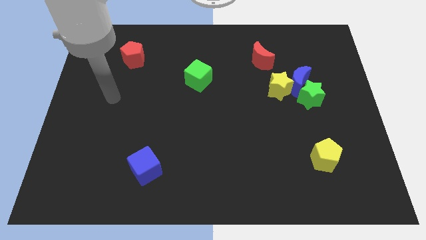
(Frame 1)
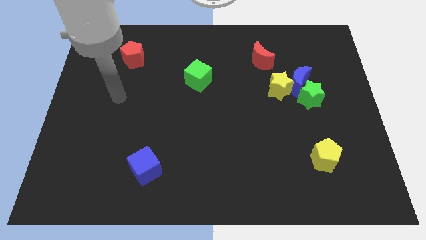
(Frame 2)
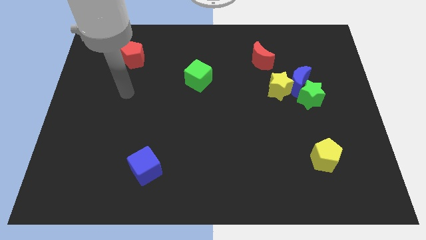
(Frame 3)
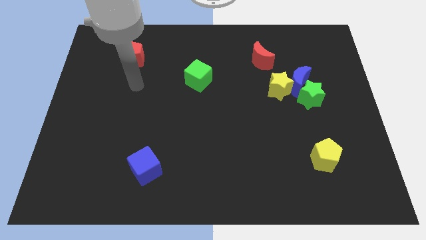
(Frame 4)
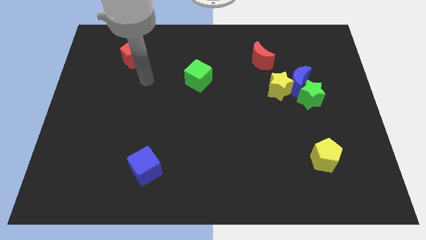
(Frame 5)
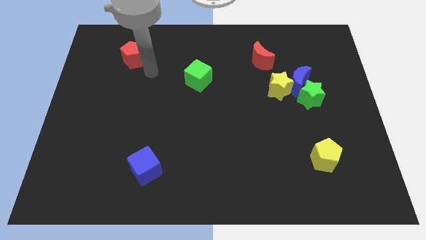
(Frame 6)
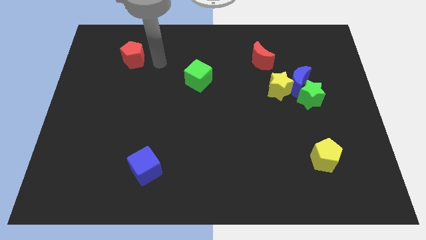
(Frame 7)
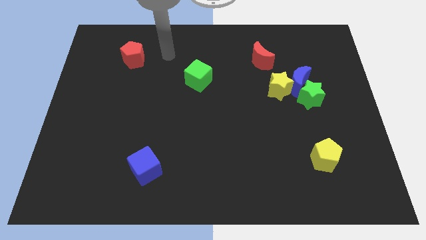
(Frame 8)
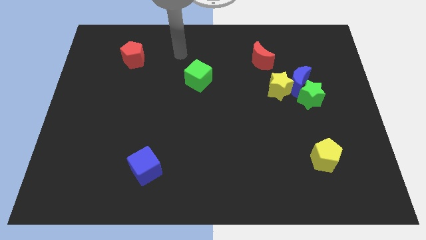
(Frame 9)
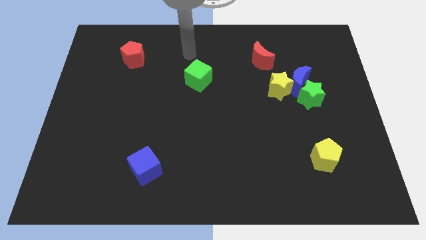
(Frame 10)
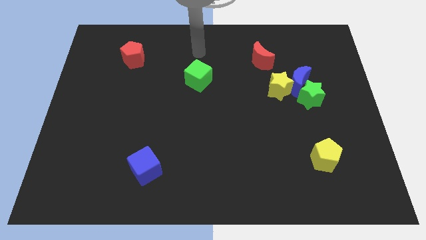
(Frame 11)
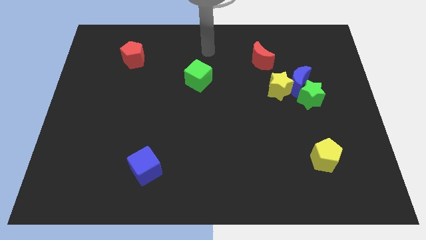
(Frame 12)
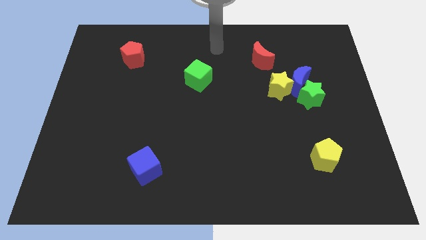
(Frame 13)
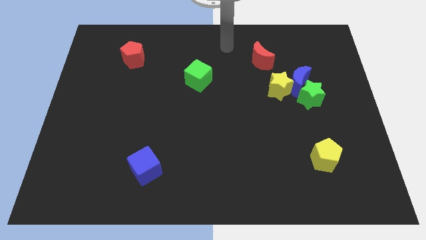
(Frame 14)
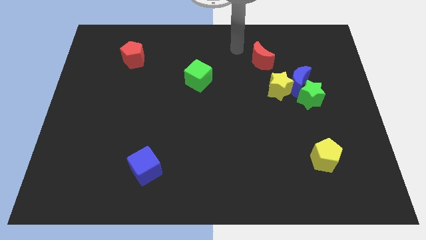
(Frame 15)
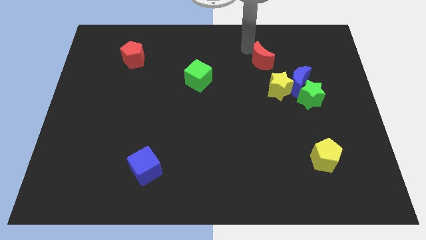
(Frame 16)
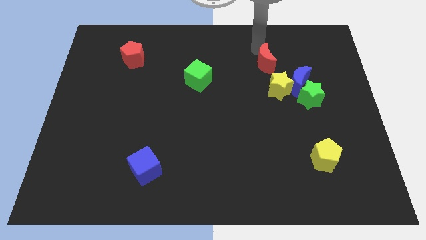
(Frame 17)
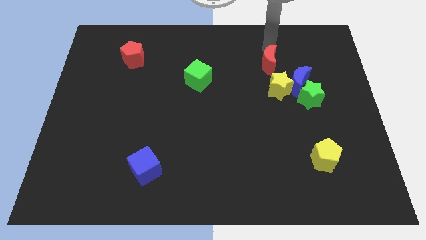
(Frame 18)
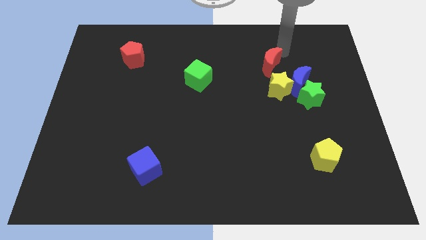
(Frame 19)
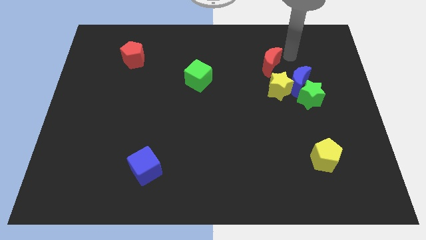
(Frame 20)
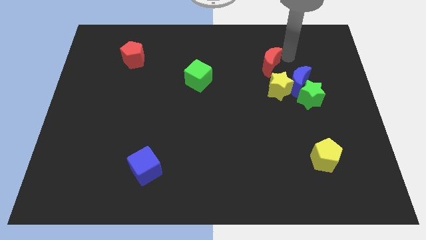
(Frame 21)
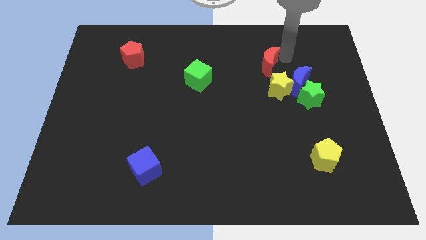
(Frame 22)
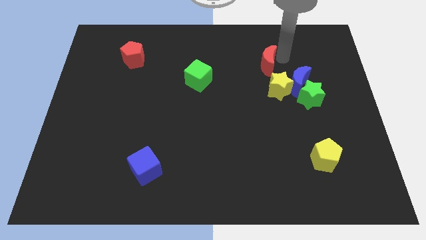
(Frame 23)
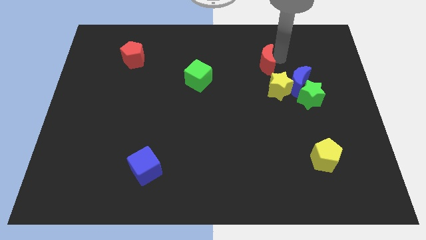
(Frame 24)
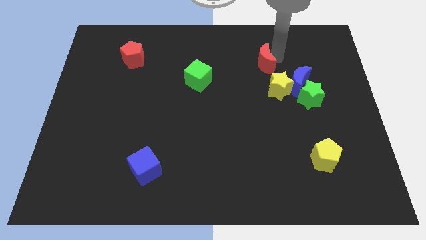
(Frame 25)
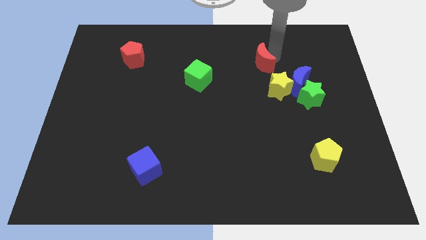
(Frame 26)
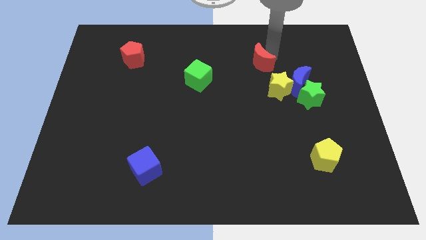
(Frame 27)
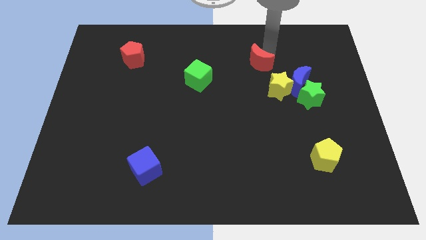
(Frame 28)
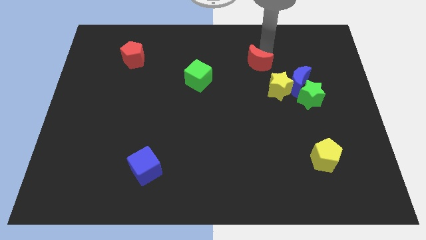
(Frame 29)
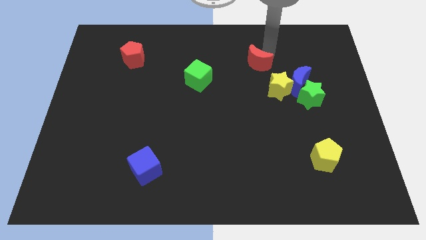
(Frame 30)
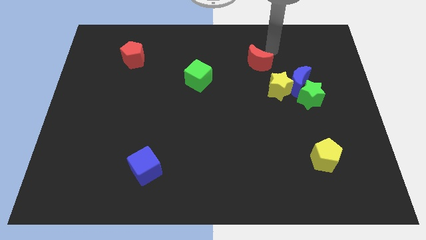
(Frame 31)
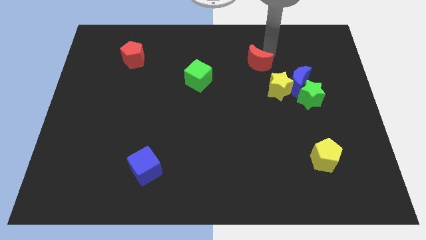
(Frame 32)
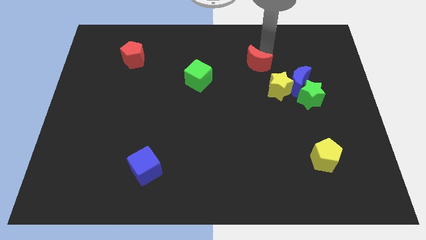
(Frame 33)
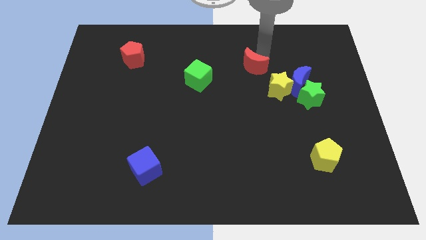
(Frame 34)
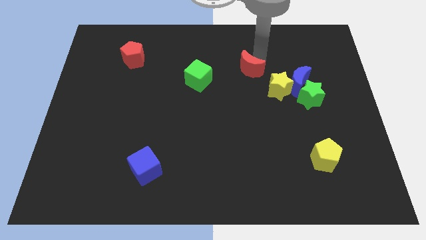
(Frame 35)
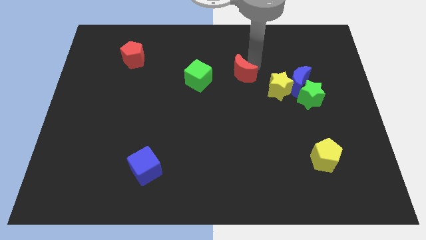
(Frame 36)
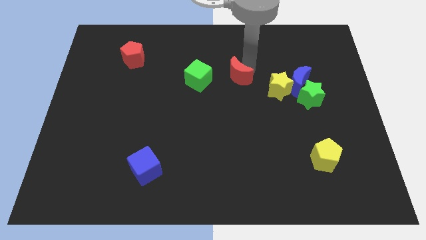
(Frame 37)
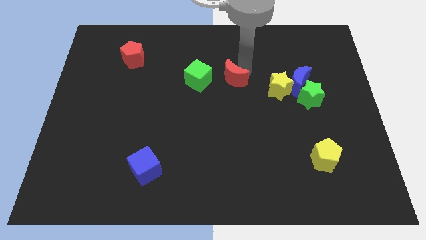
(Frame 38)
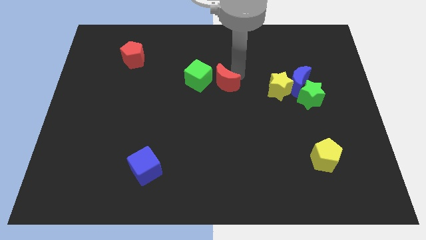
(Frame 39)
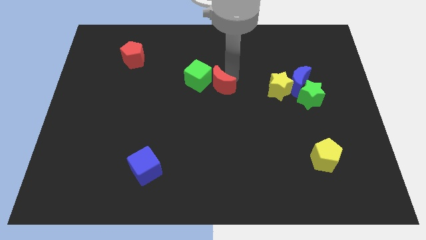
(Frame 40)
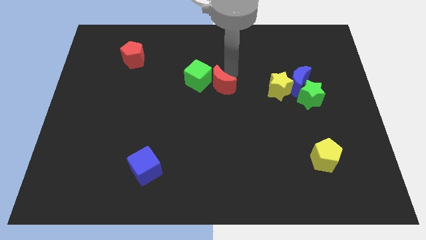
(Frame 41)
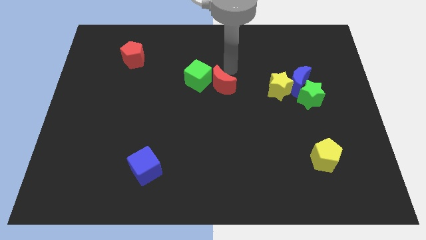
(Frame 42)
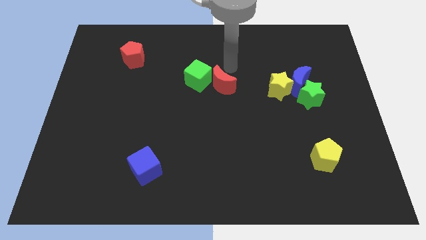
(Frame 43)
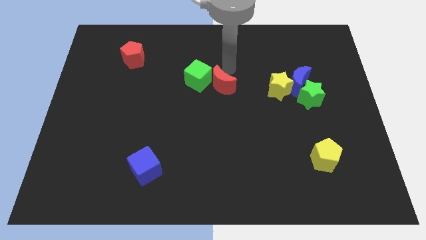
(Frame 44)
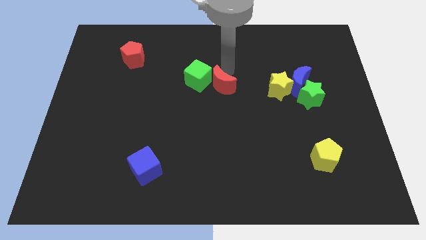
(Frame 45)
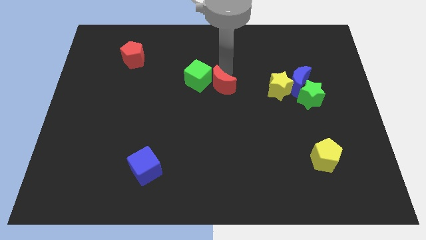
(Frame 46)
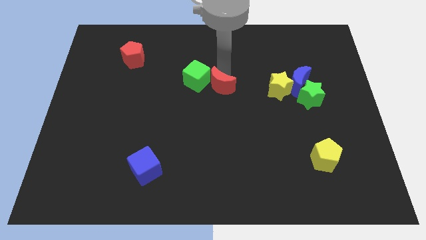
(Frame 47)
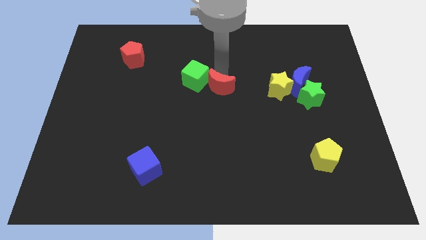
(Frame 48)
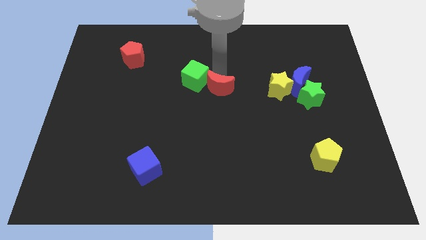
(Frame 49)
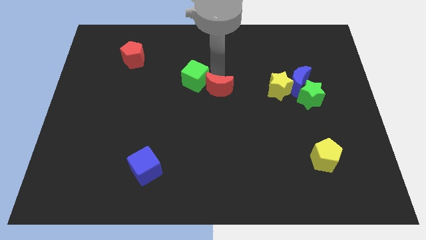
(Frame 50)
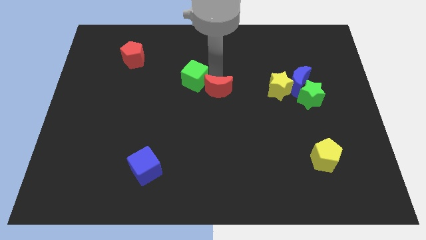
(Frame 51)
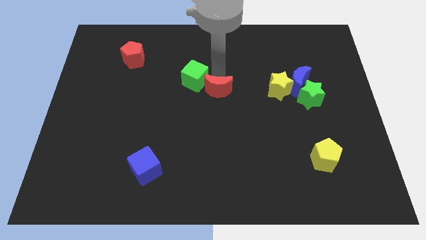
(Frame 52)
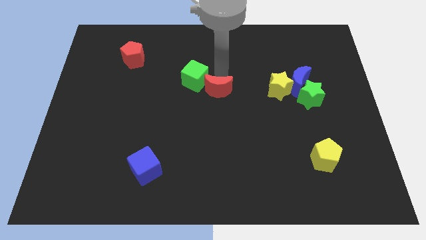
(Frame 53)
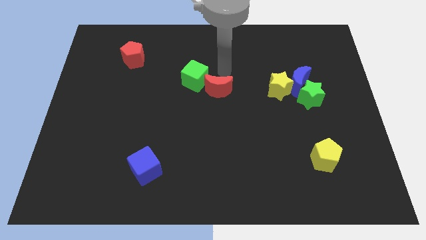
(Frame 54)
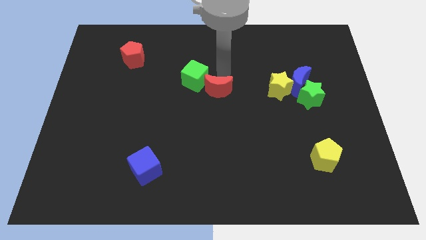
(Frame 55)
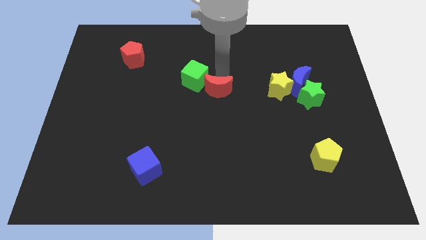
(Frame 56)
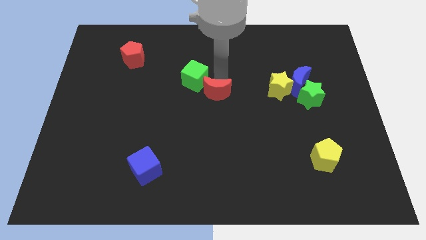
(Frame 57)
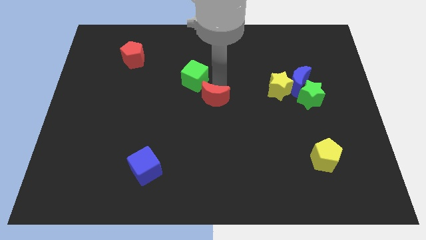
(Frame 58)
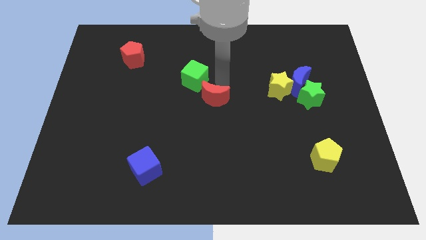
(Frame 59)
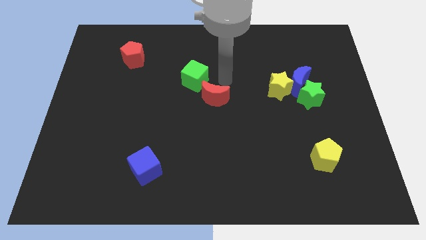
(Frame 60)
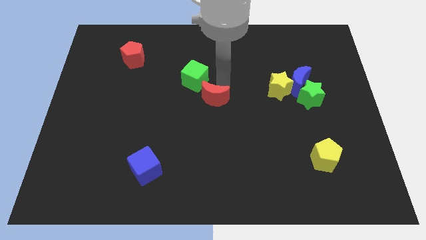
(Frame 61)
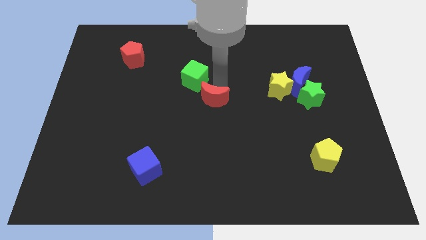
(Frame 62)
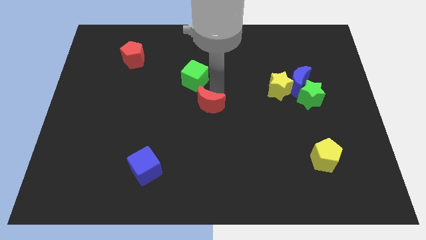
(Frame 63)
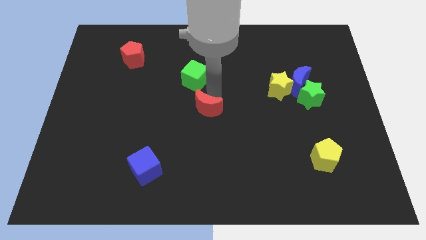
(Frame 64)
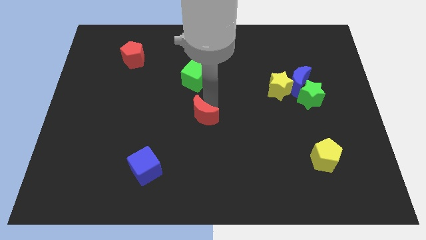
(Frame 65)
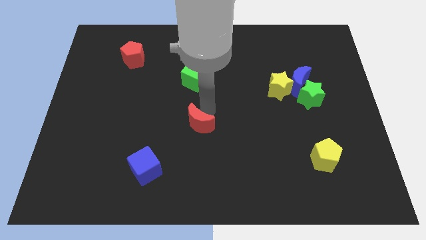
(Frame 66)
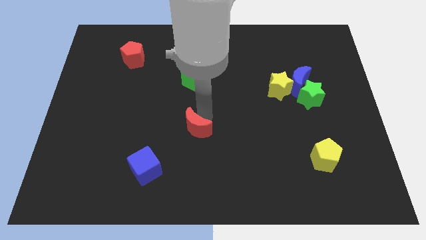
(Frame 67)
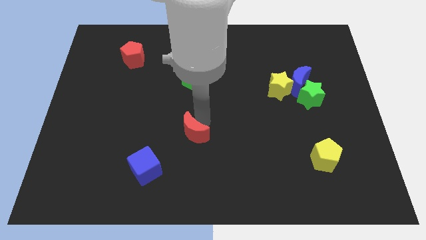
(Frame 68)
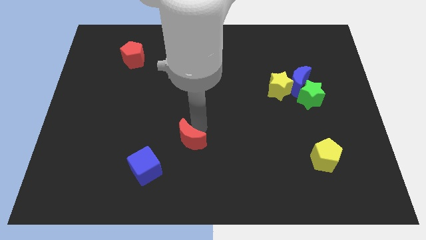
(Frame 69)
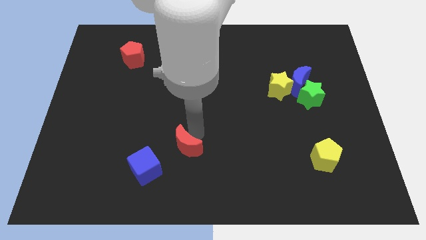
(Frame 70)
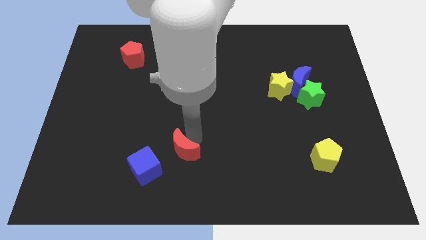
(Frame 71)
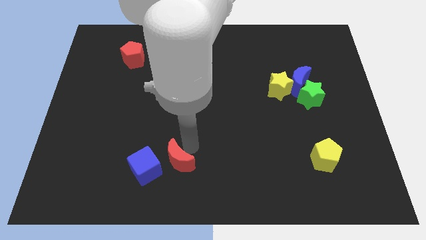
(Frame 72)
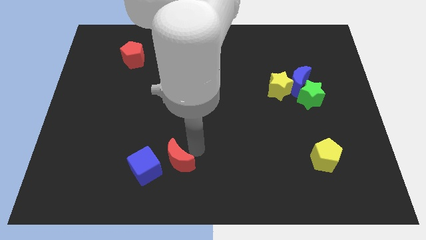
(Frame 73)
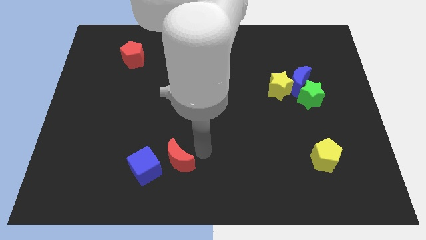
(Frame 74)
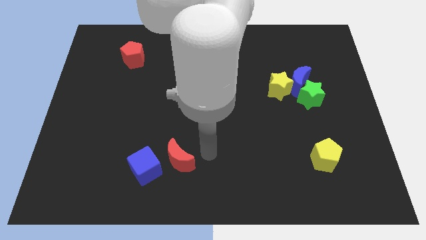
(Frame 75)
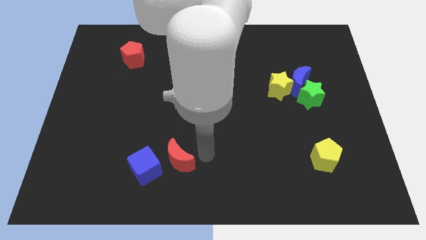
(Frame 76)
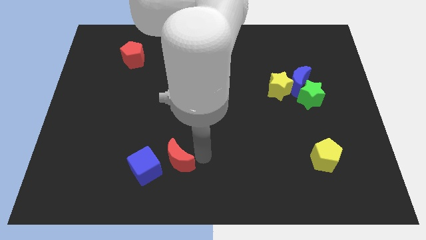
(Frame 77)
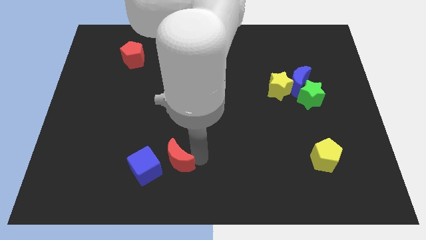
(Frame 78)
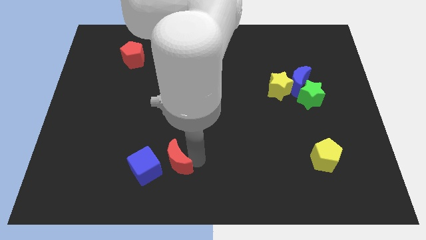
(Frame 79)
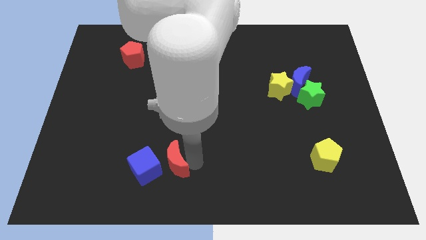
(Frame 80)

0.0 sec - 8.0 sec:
move the red moon towards the blue cube
